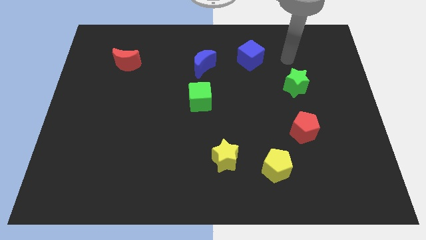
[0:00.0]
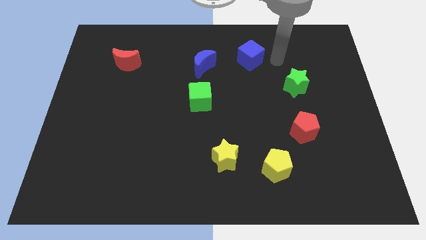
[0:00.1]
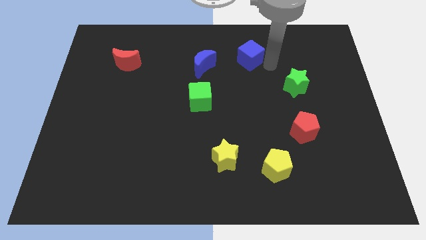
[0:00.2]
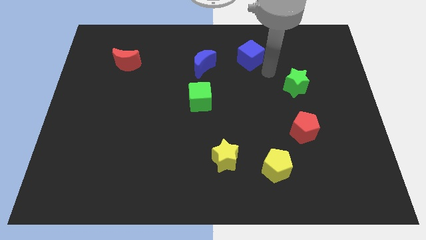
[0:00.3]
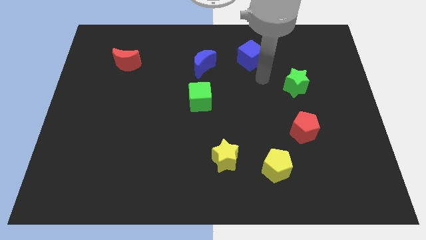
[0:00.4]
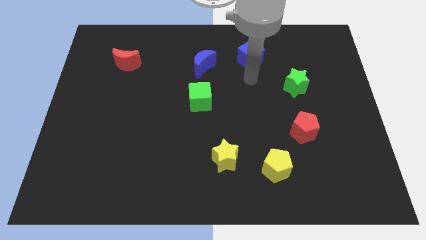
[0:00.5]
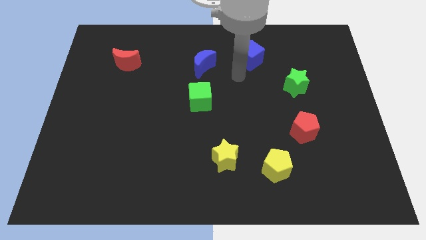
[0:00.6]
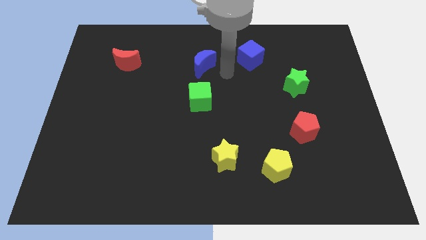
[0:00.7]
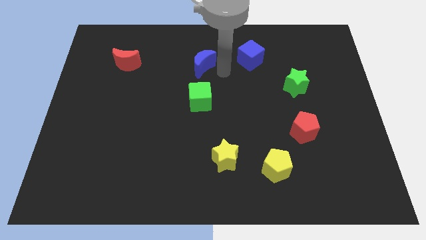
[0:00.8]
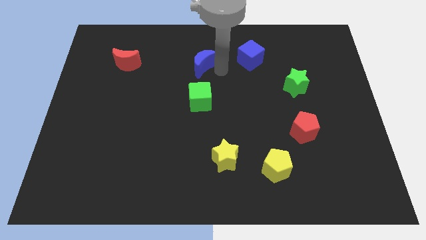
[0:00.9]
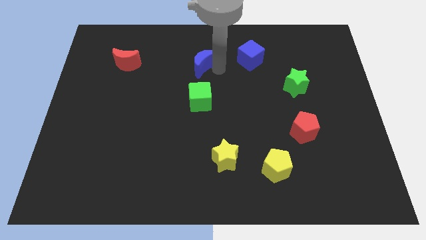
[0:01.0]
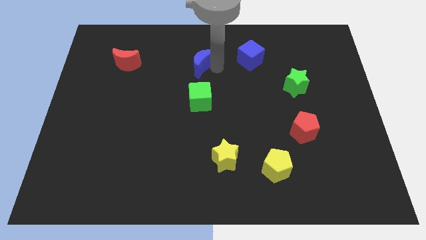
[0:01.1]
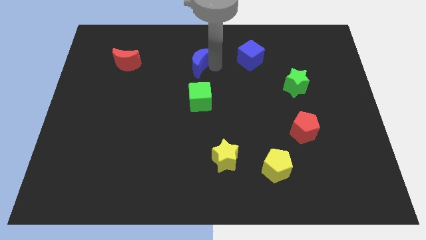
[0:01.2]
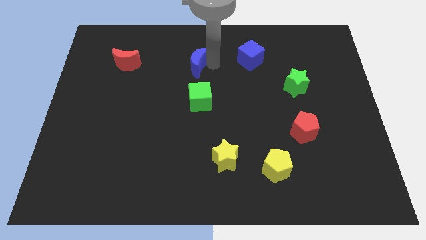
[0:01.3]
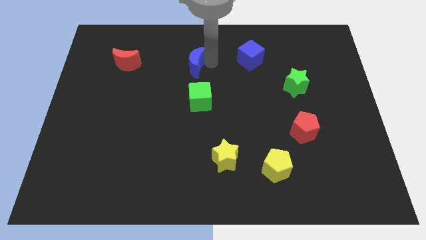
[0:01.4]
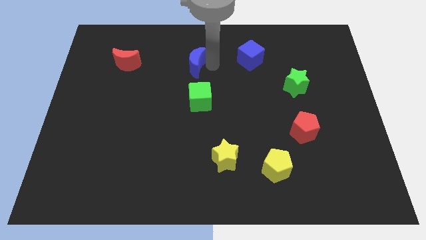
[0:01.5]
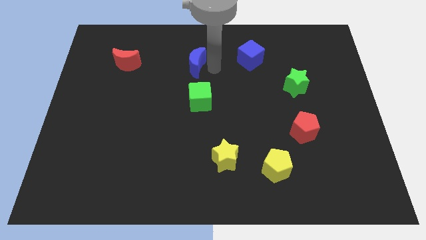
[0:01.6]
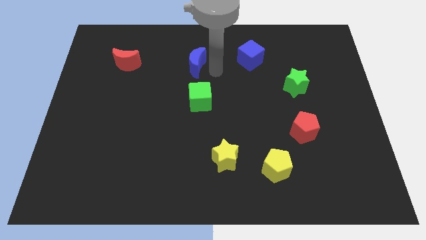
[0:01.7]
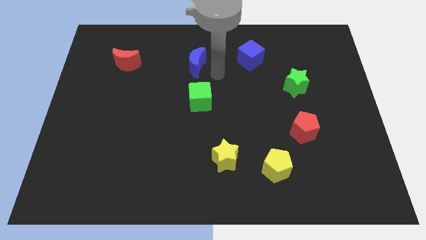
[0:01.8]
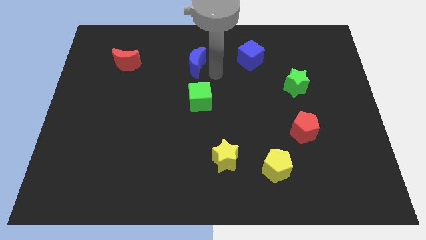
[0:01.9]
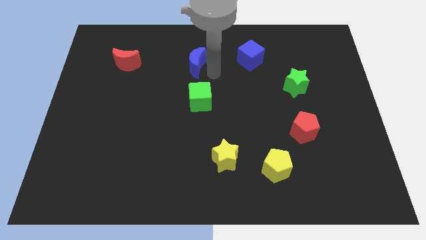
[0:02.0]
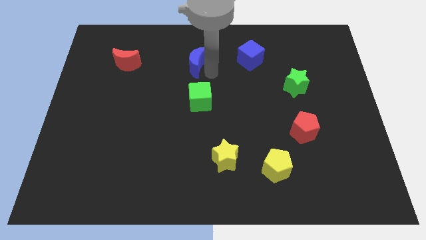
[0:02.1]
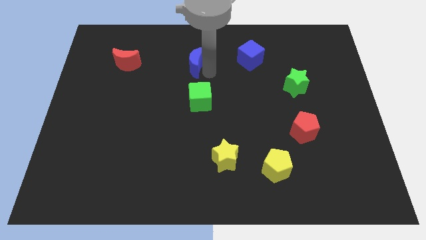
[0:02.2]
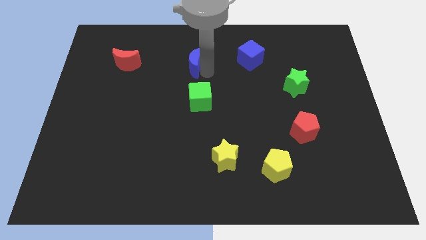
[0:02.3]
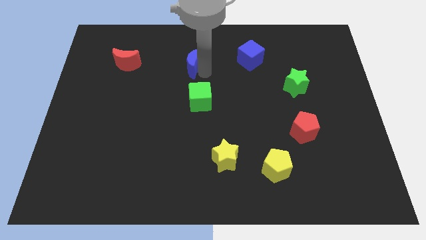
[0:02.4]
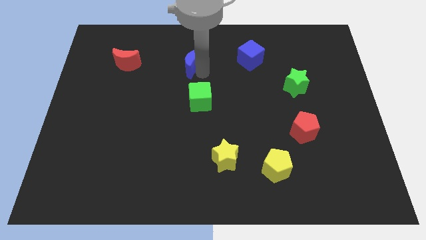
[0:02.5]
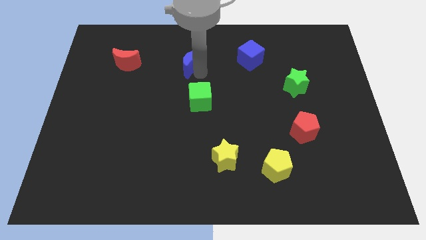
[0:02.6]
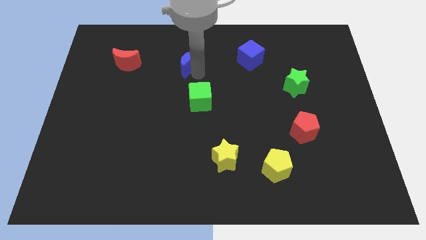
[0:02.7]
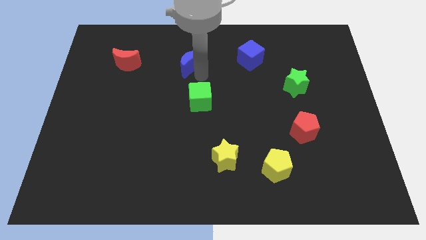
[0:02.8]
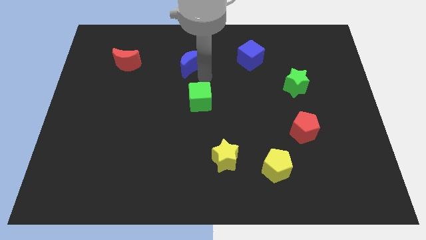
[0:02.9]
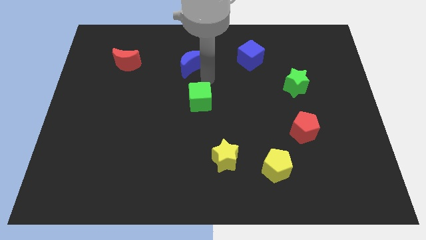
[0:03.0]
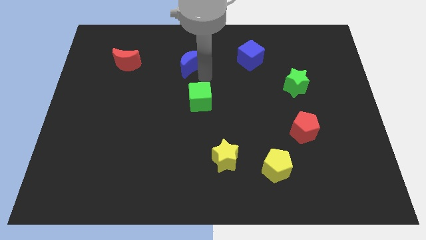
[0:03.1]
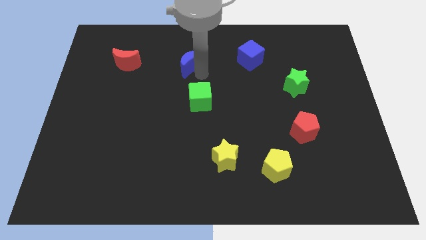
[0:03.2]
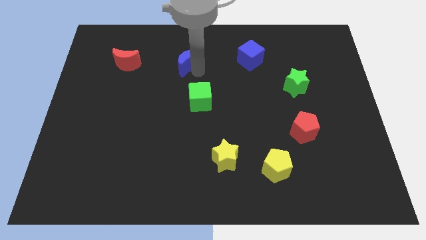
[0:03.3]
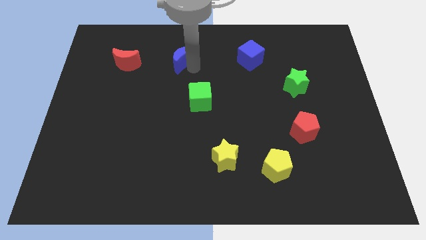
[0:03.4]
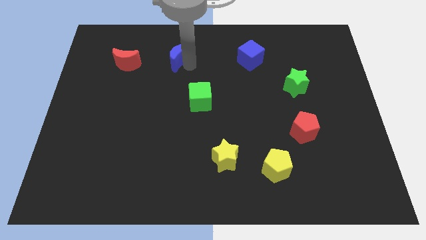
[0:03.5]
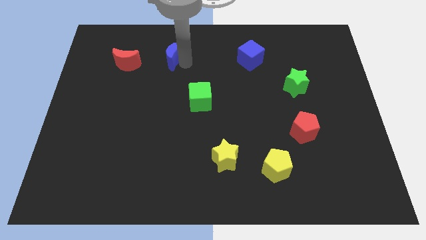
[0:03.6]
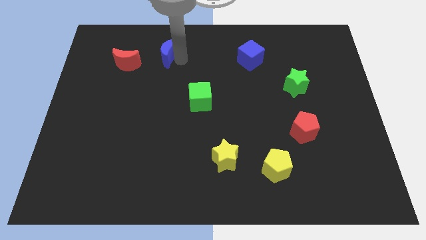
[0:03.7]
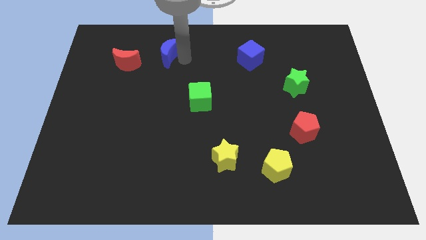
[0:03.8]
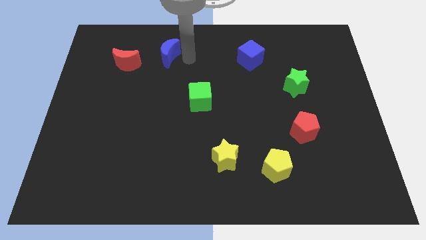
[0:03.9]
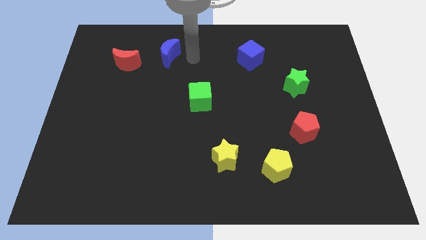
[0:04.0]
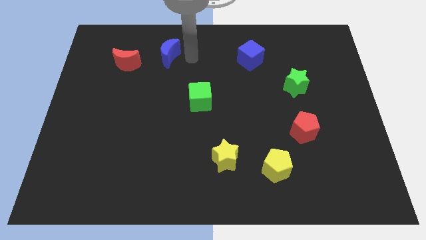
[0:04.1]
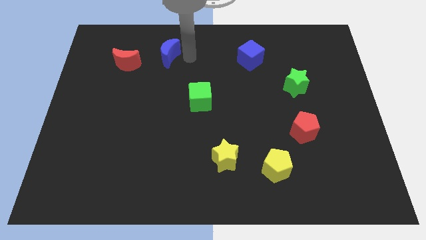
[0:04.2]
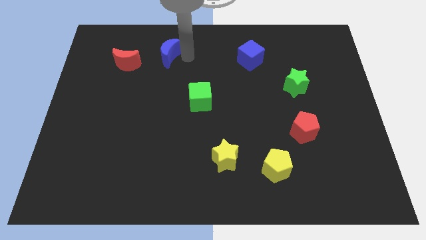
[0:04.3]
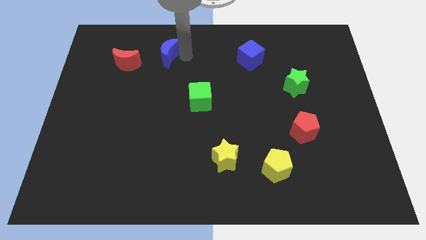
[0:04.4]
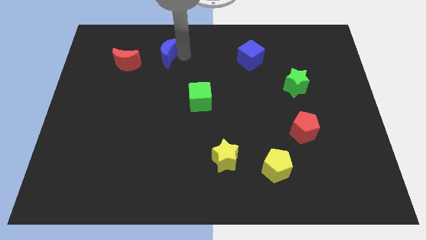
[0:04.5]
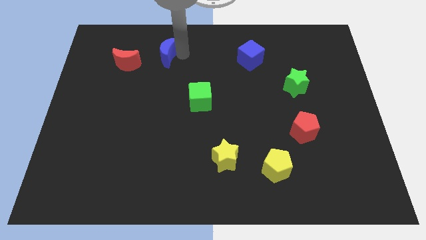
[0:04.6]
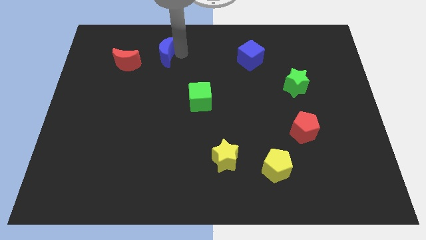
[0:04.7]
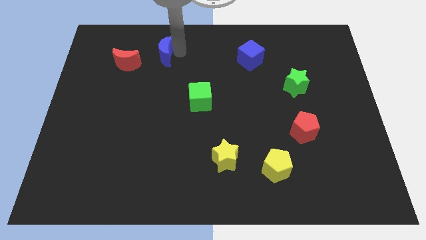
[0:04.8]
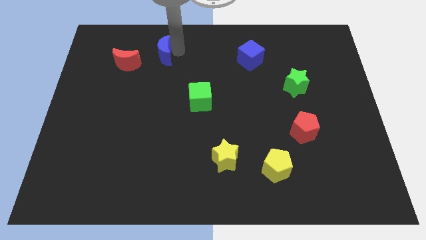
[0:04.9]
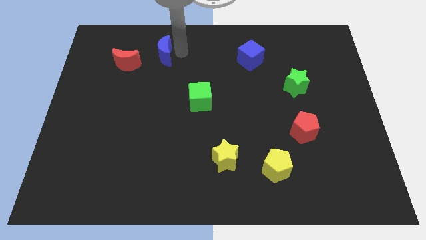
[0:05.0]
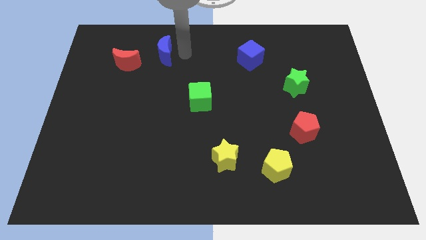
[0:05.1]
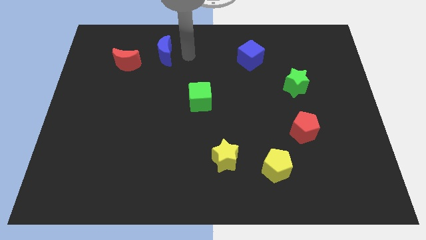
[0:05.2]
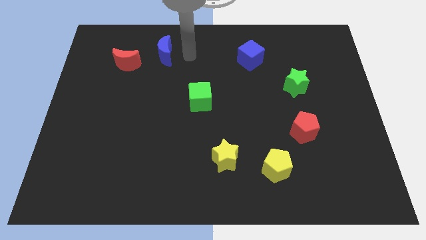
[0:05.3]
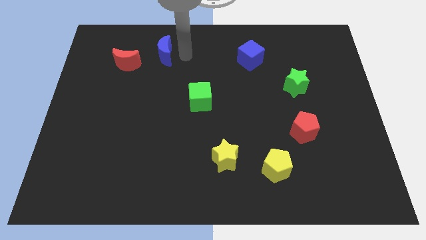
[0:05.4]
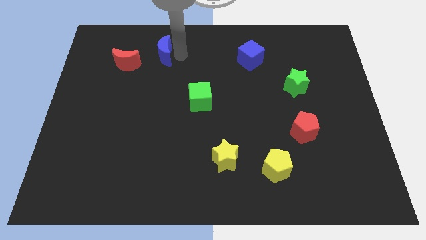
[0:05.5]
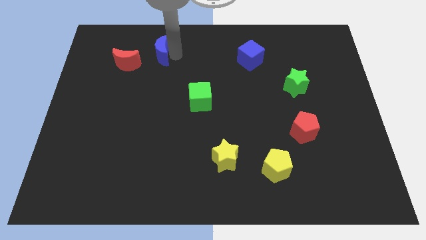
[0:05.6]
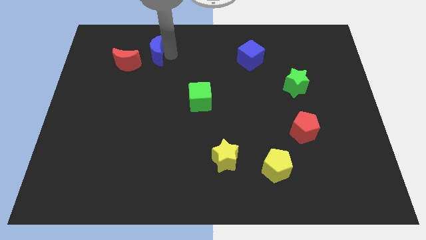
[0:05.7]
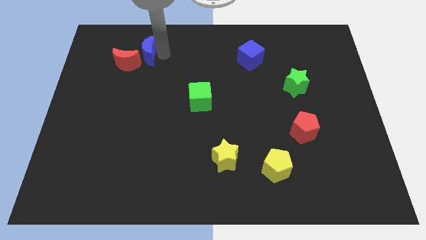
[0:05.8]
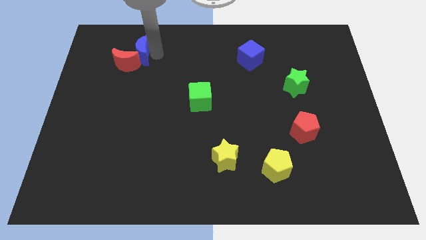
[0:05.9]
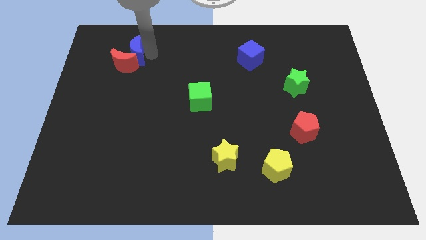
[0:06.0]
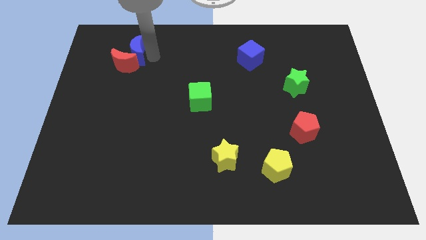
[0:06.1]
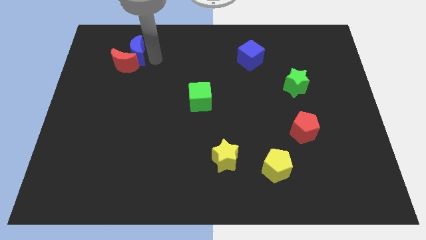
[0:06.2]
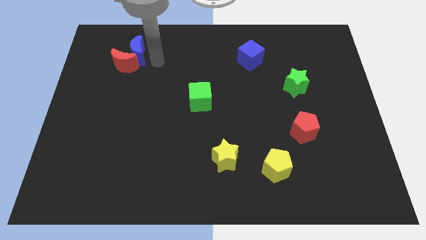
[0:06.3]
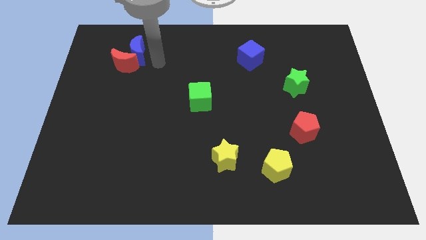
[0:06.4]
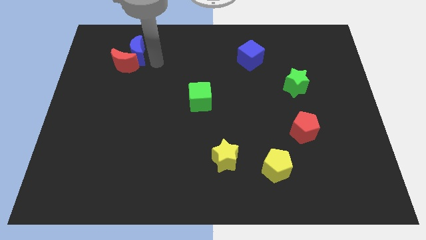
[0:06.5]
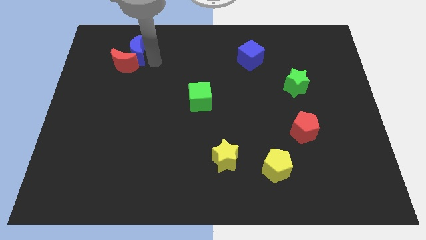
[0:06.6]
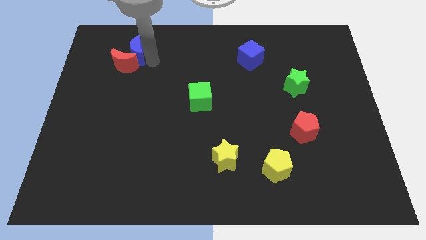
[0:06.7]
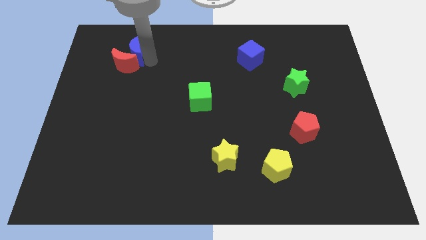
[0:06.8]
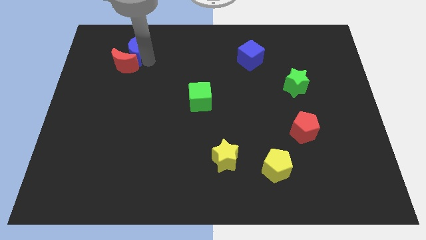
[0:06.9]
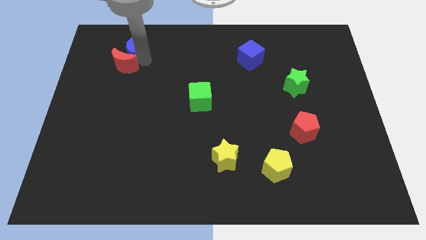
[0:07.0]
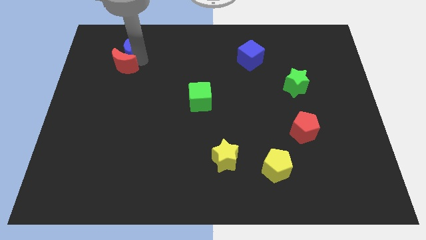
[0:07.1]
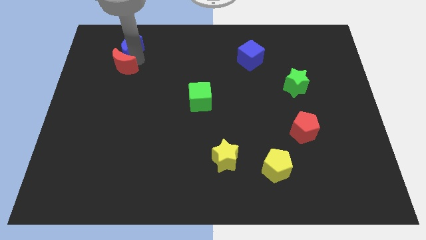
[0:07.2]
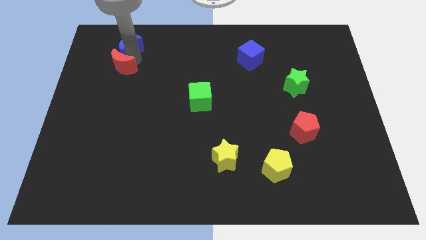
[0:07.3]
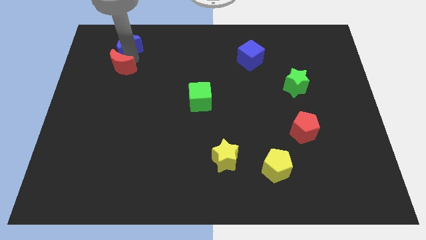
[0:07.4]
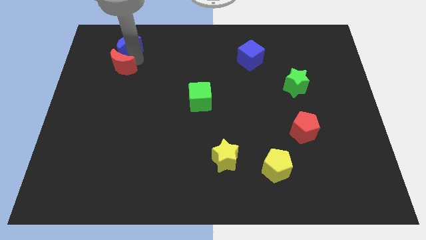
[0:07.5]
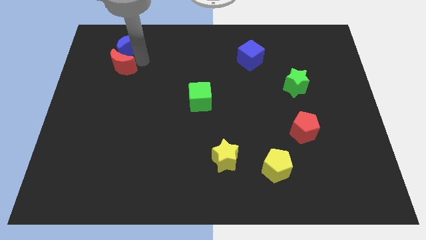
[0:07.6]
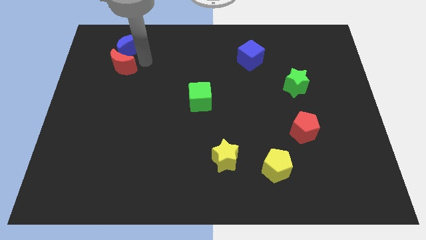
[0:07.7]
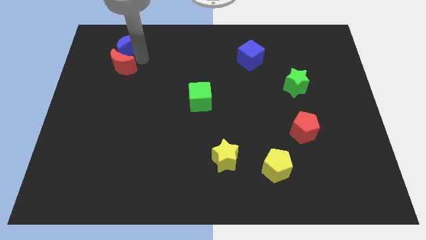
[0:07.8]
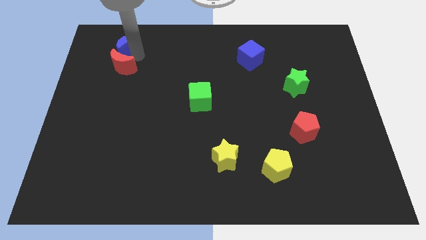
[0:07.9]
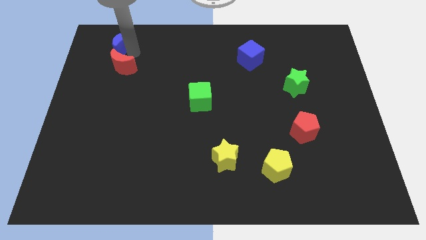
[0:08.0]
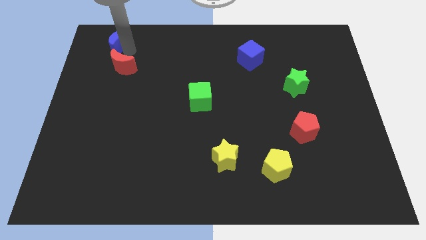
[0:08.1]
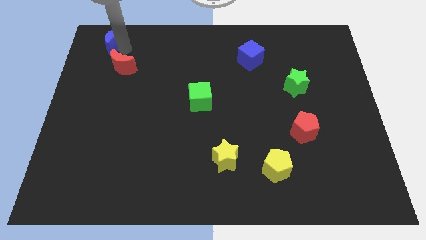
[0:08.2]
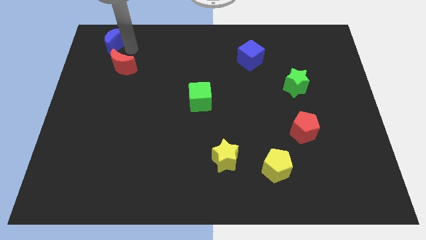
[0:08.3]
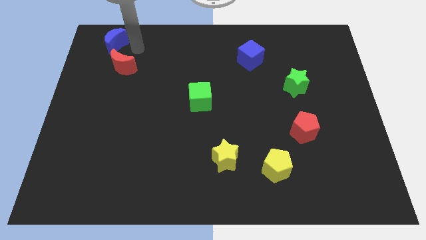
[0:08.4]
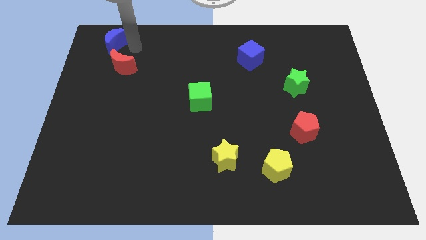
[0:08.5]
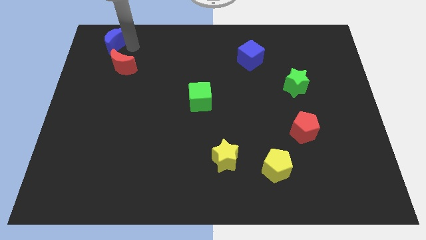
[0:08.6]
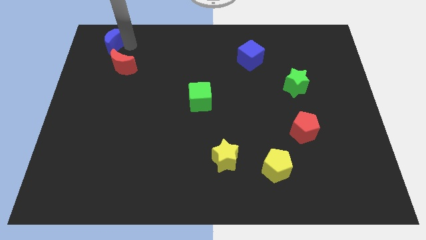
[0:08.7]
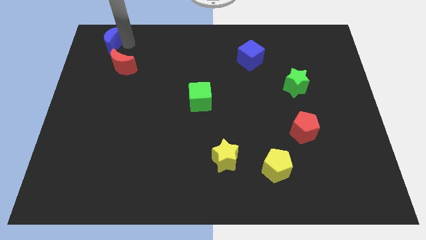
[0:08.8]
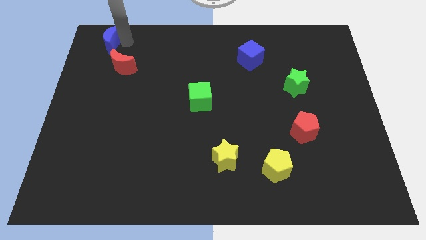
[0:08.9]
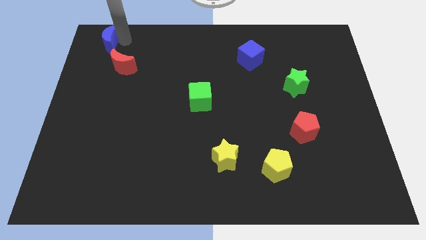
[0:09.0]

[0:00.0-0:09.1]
slide the blue moon to the top left
